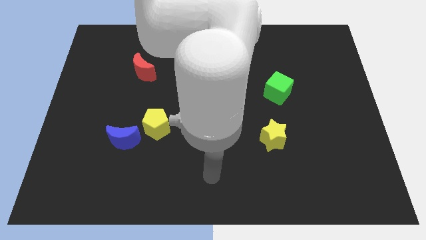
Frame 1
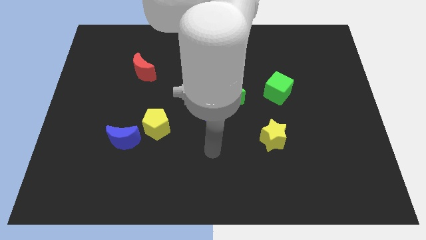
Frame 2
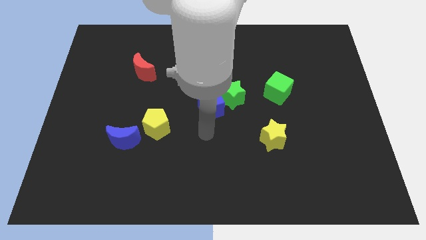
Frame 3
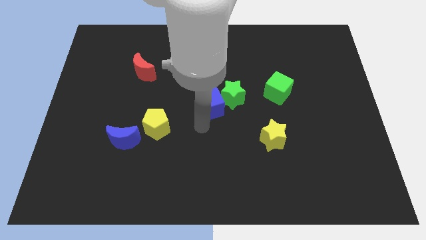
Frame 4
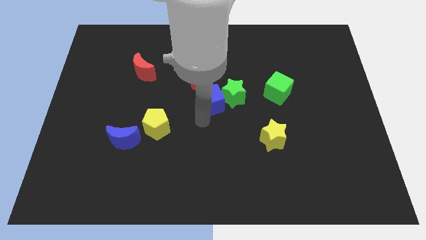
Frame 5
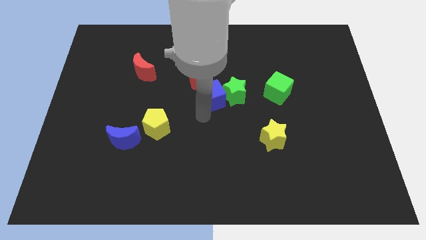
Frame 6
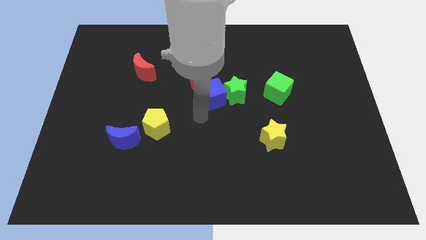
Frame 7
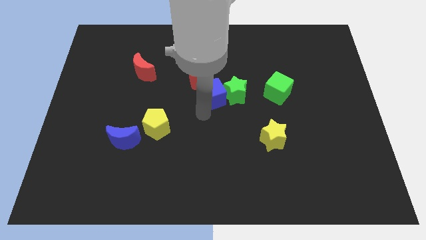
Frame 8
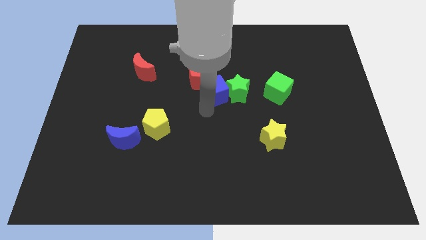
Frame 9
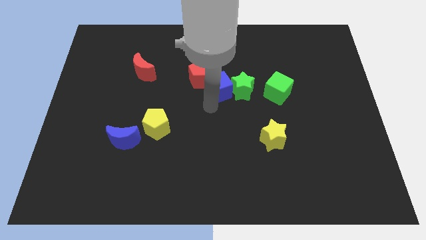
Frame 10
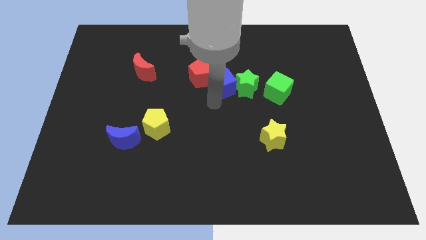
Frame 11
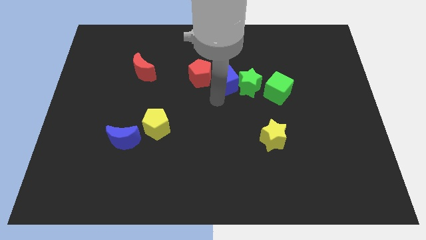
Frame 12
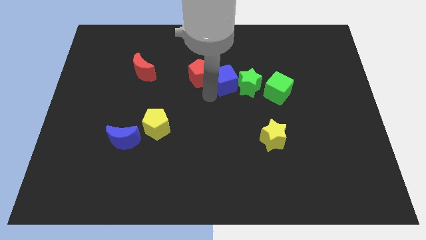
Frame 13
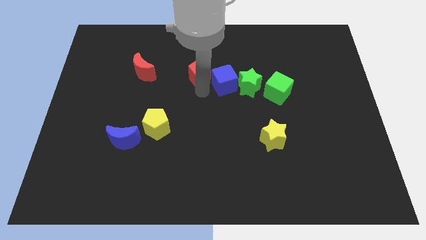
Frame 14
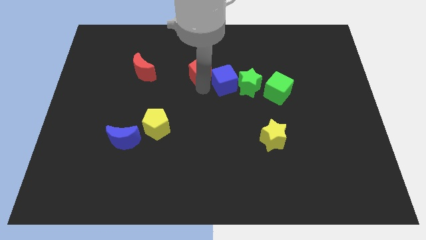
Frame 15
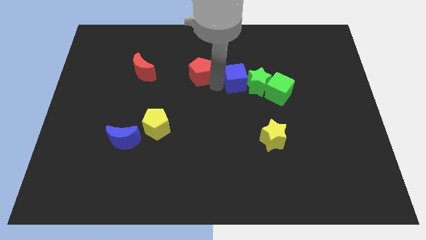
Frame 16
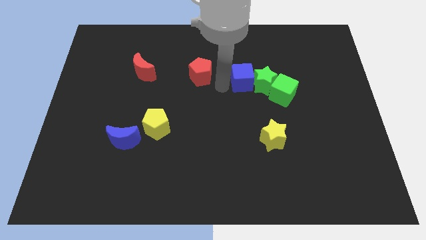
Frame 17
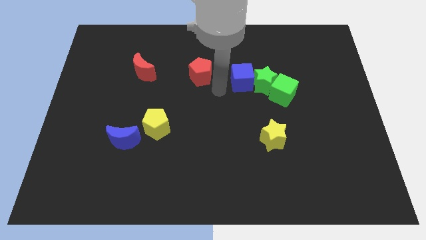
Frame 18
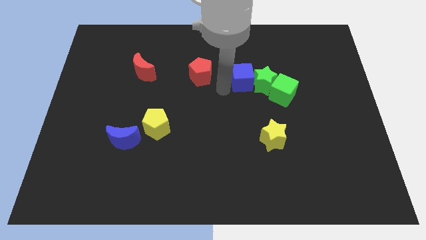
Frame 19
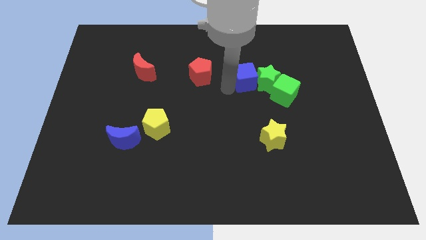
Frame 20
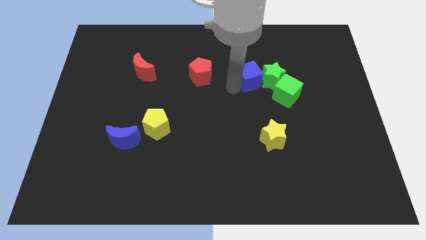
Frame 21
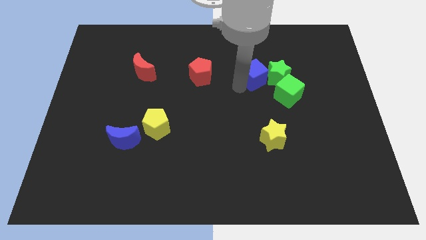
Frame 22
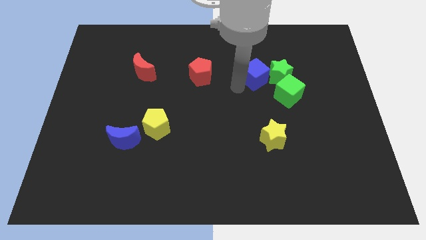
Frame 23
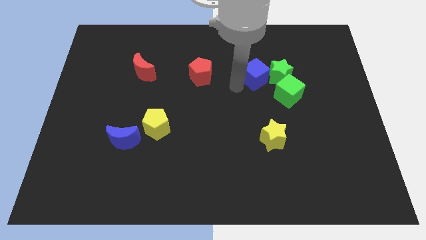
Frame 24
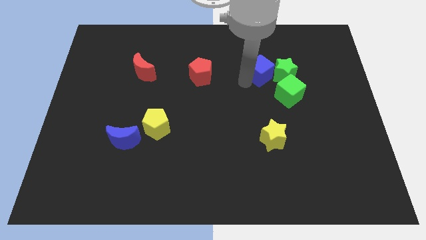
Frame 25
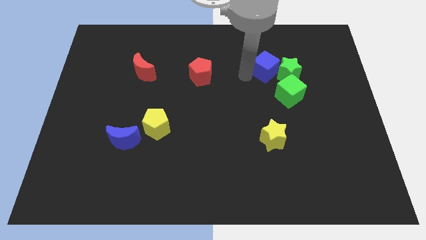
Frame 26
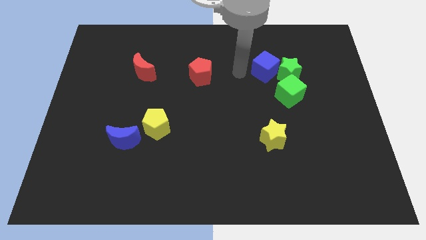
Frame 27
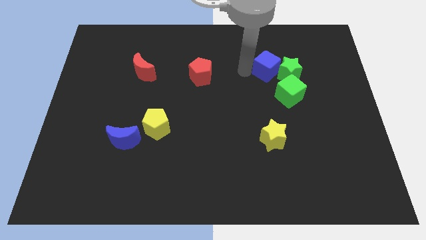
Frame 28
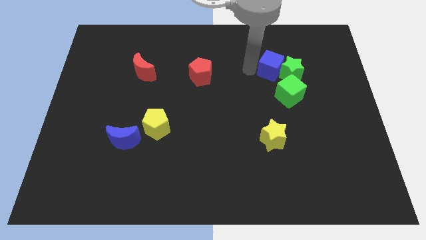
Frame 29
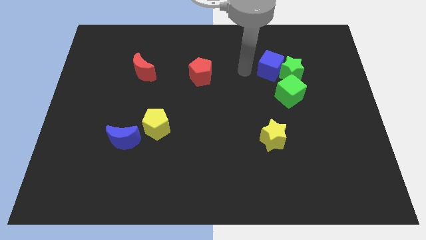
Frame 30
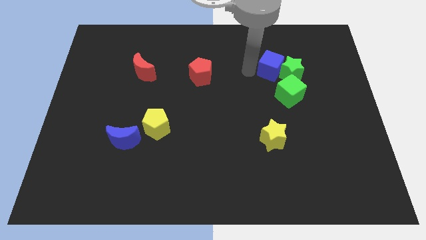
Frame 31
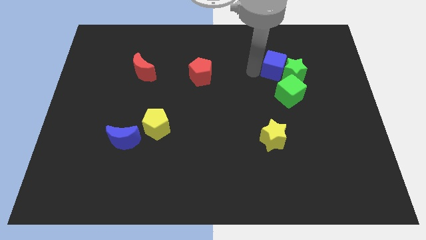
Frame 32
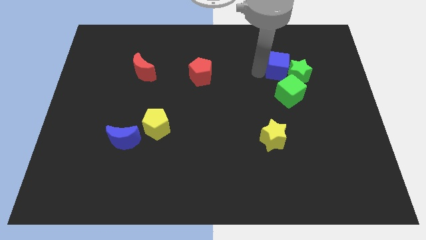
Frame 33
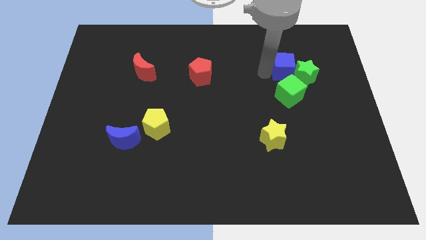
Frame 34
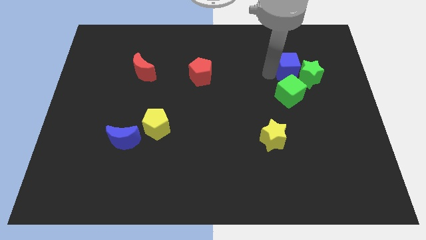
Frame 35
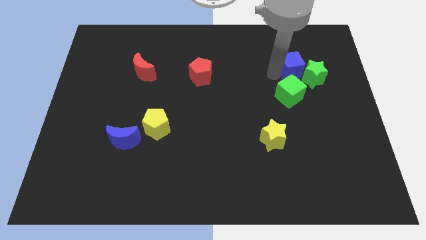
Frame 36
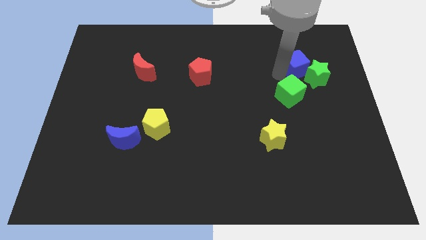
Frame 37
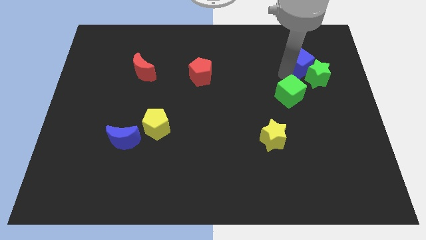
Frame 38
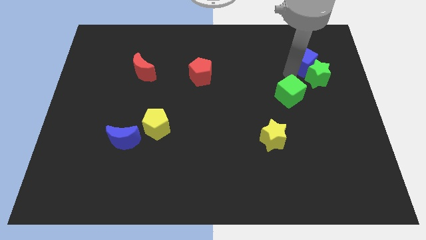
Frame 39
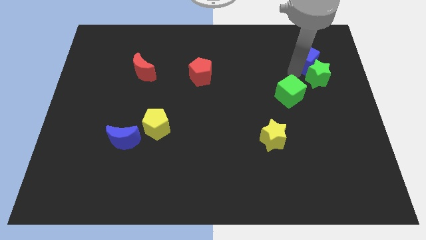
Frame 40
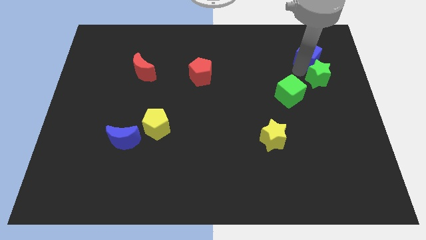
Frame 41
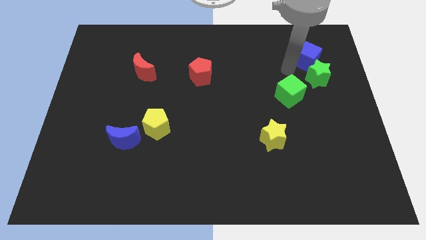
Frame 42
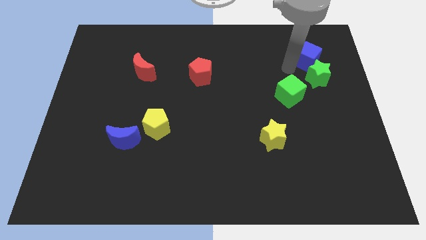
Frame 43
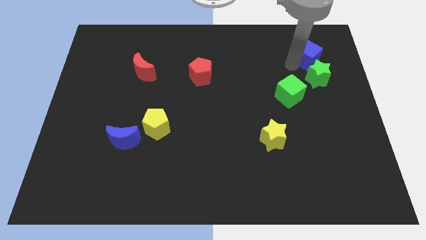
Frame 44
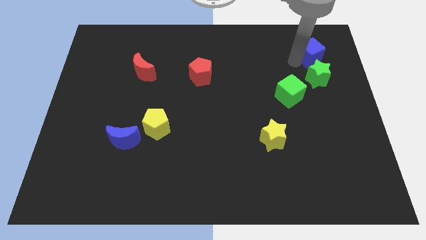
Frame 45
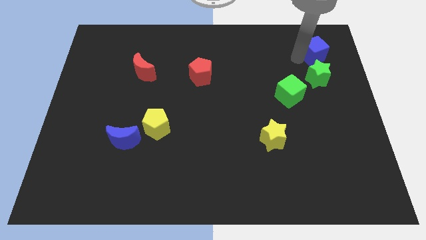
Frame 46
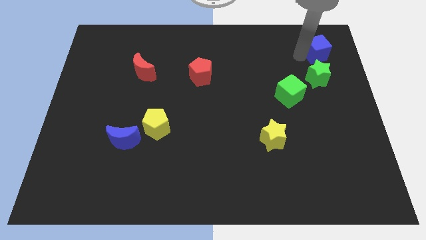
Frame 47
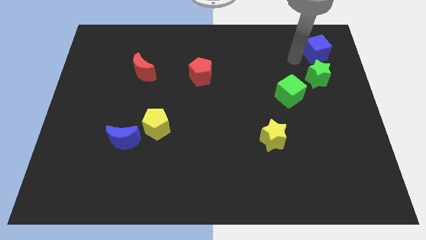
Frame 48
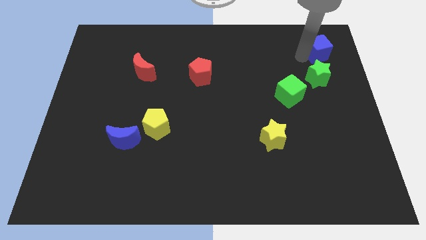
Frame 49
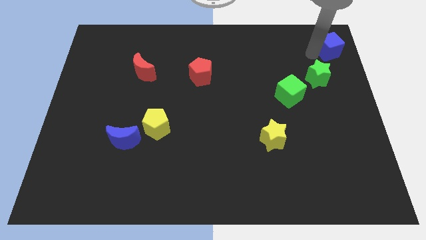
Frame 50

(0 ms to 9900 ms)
push the blue cube to the top right of the board

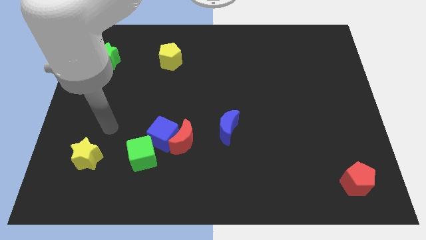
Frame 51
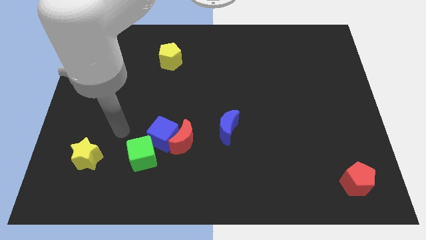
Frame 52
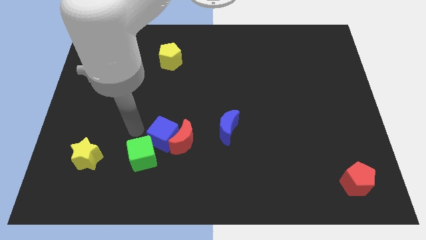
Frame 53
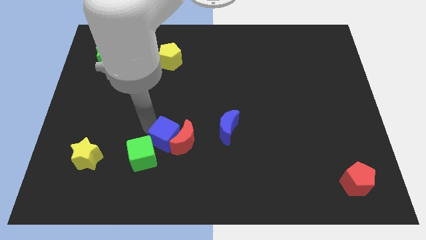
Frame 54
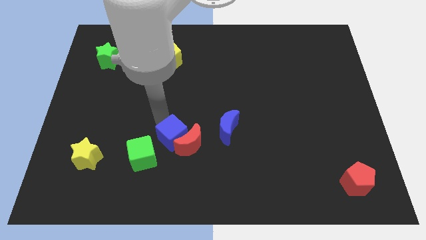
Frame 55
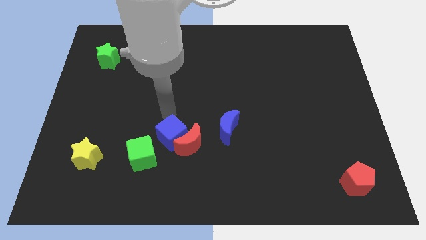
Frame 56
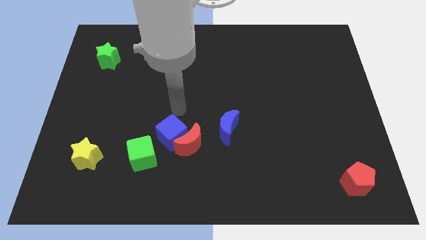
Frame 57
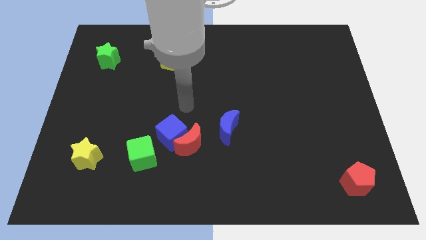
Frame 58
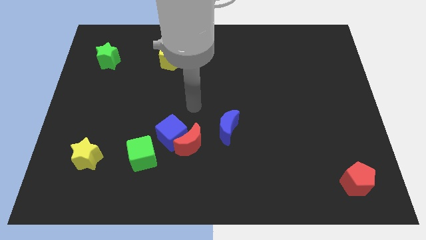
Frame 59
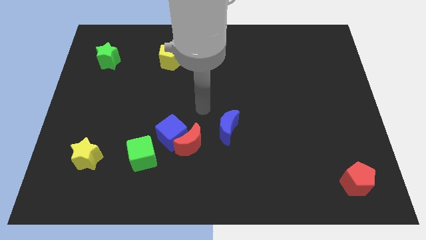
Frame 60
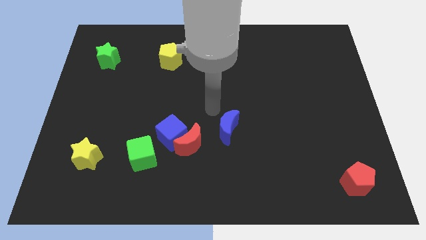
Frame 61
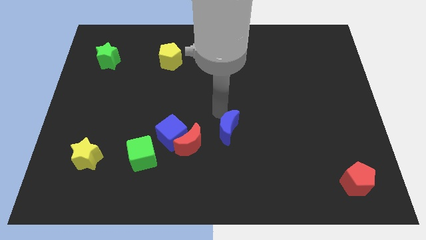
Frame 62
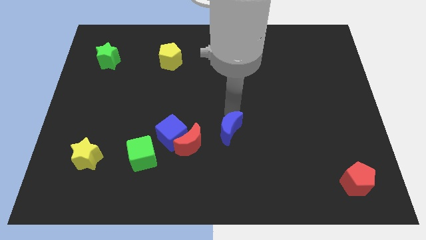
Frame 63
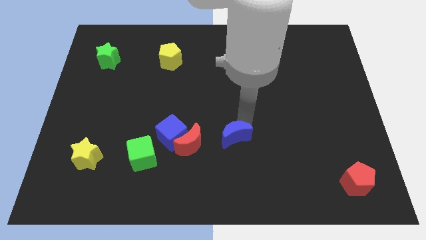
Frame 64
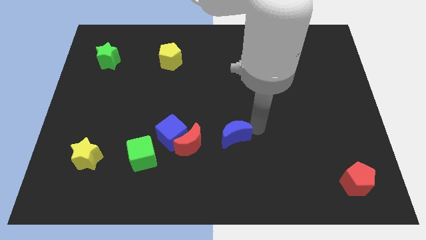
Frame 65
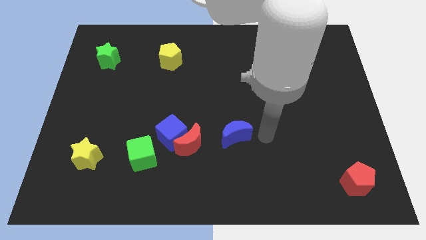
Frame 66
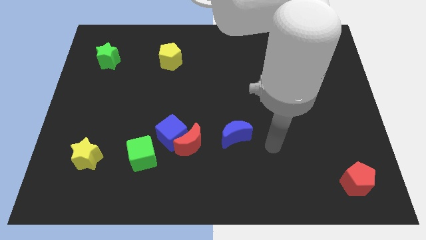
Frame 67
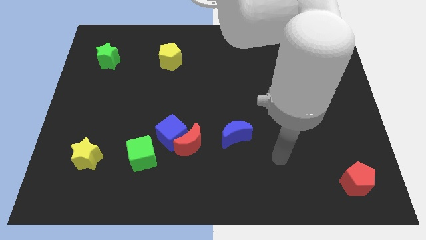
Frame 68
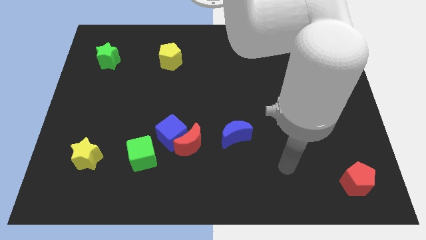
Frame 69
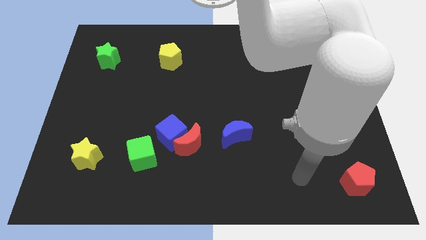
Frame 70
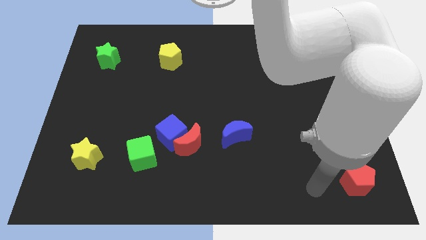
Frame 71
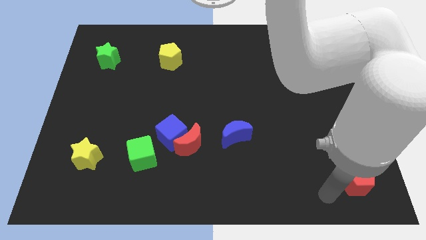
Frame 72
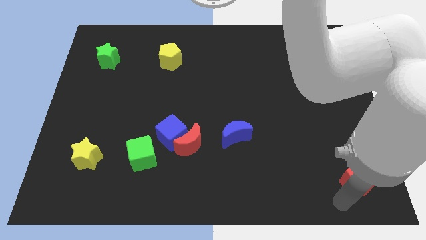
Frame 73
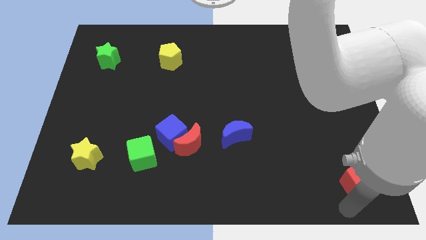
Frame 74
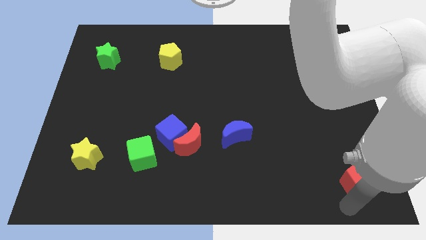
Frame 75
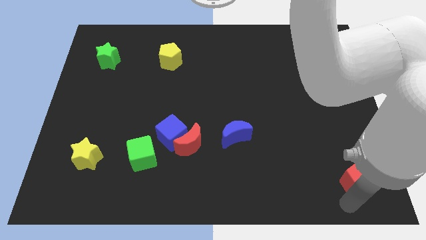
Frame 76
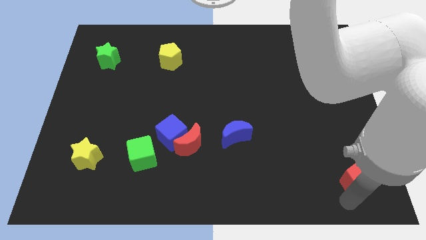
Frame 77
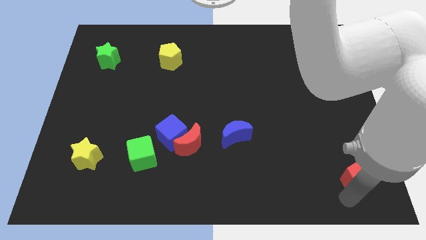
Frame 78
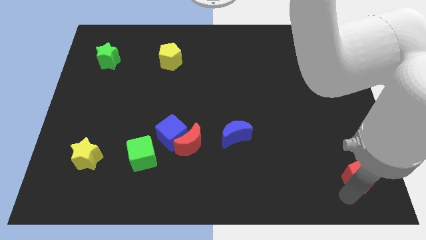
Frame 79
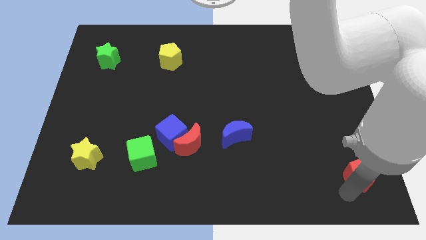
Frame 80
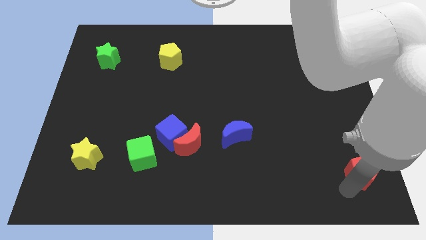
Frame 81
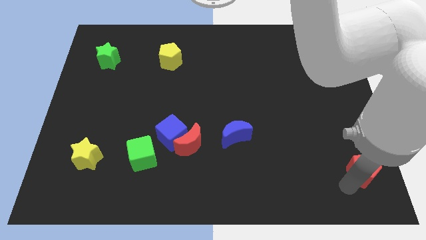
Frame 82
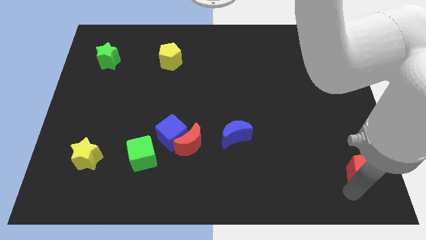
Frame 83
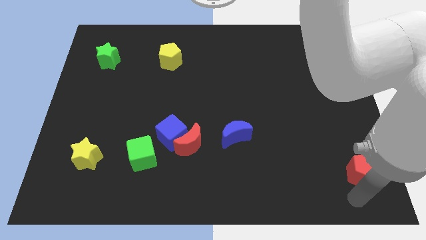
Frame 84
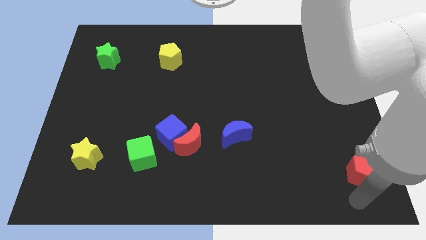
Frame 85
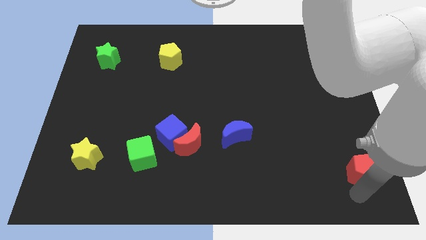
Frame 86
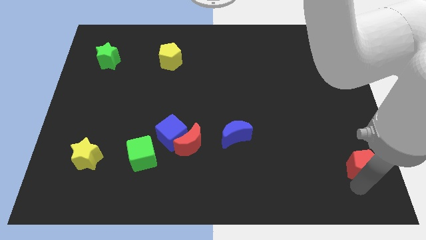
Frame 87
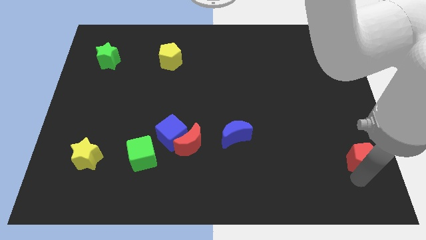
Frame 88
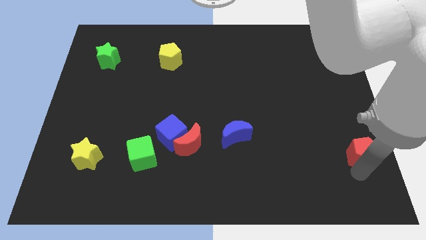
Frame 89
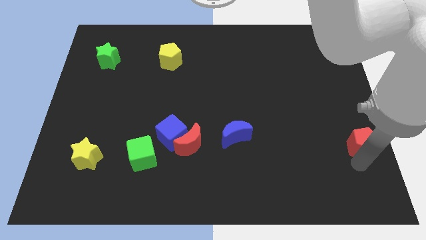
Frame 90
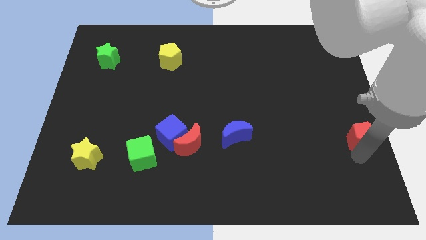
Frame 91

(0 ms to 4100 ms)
move the red pentagon to the center right
